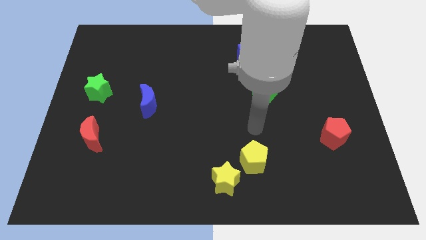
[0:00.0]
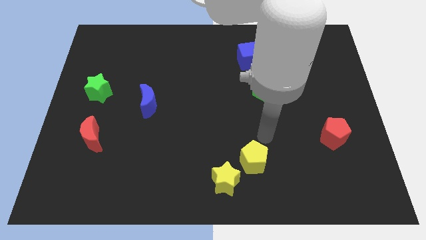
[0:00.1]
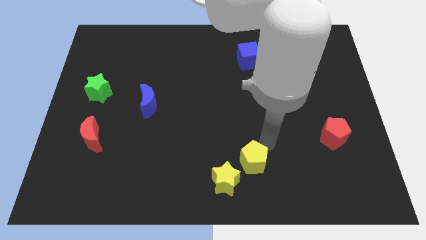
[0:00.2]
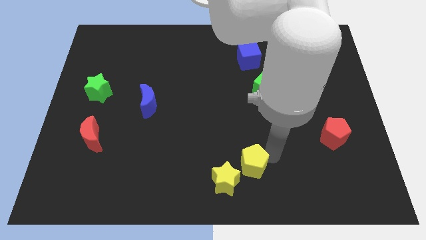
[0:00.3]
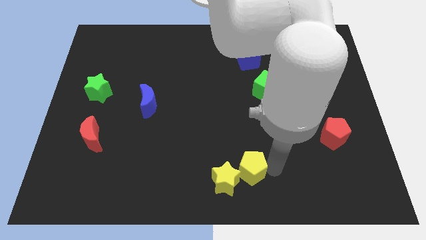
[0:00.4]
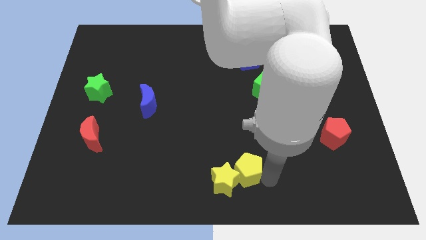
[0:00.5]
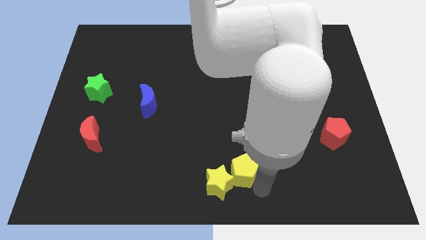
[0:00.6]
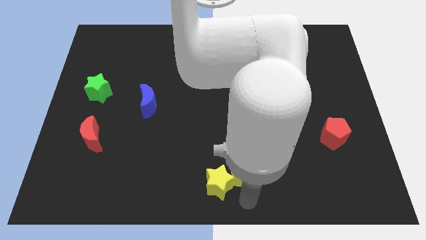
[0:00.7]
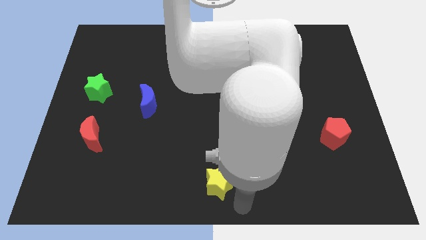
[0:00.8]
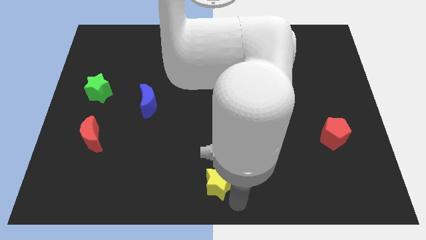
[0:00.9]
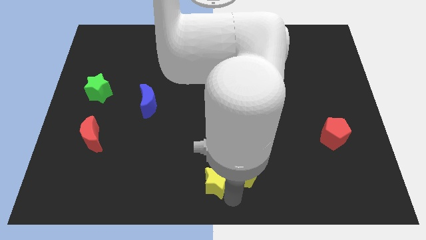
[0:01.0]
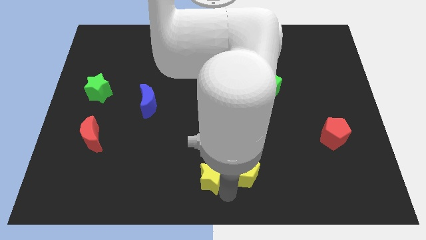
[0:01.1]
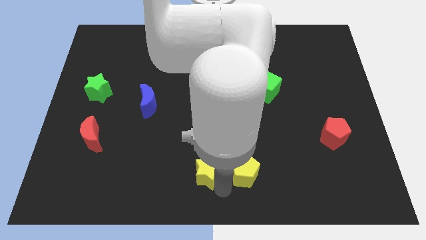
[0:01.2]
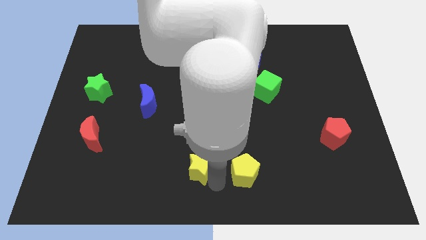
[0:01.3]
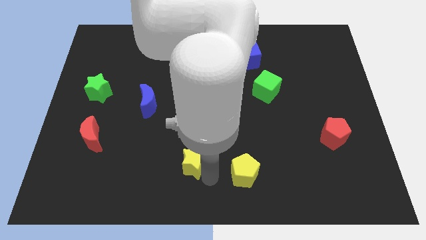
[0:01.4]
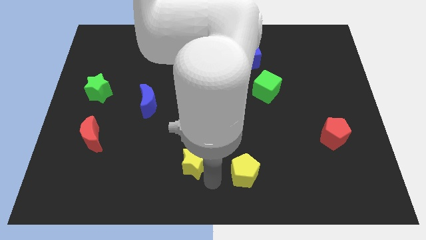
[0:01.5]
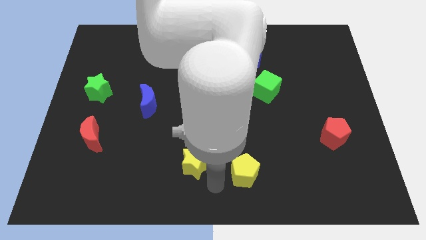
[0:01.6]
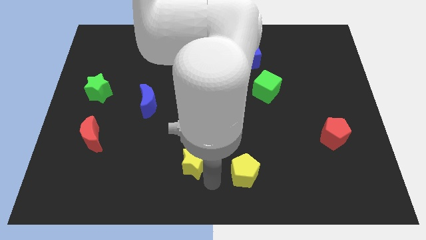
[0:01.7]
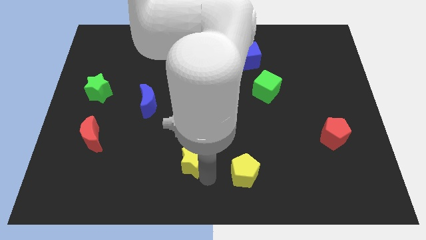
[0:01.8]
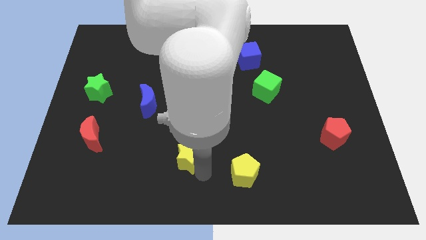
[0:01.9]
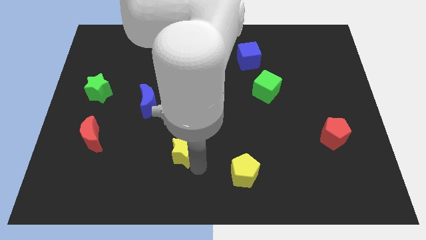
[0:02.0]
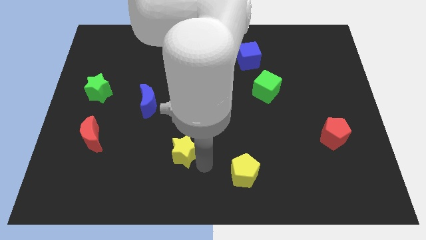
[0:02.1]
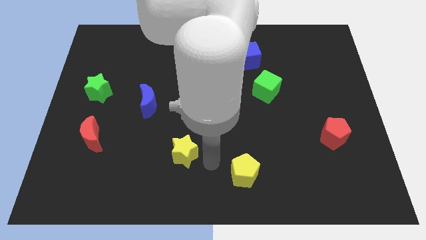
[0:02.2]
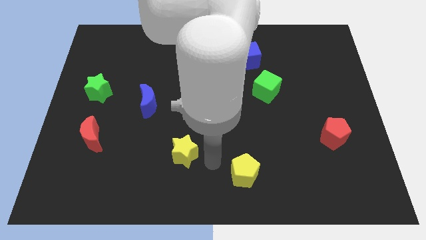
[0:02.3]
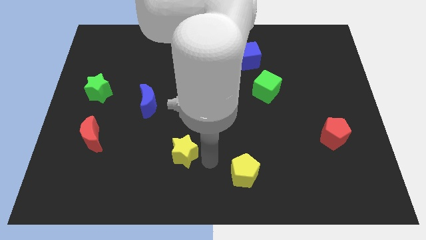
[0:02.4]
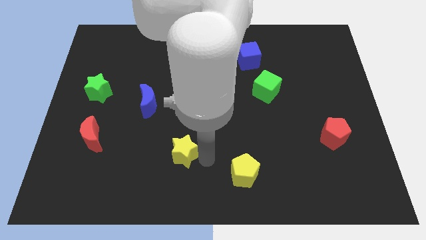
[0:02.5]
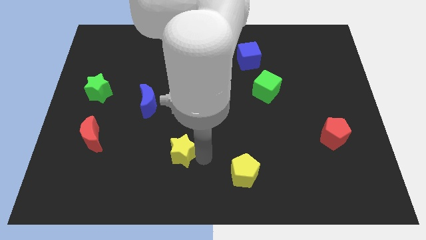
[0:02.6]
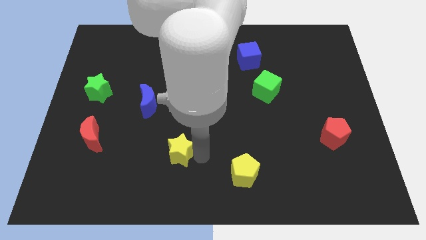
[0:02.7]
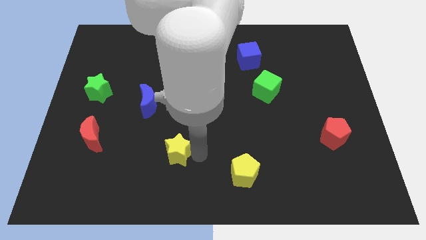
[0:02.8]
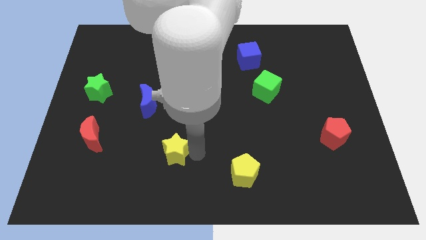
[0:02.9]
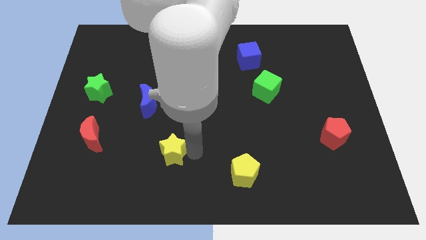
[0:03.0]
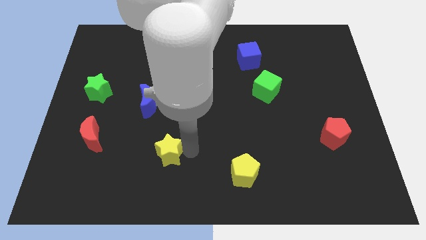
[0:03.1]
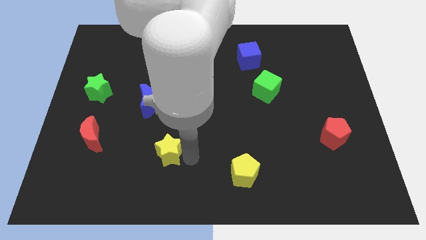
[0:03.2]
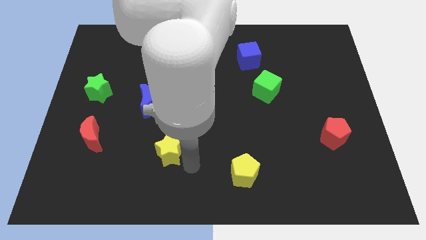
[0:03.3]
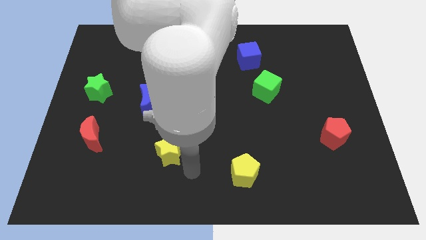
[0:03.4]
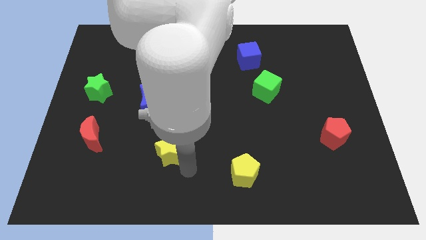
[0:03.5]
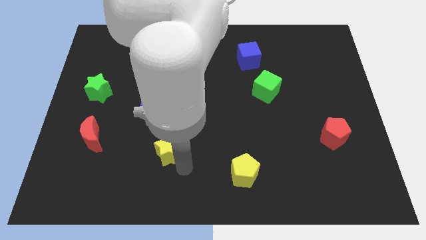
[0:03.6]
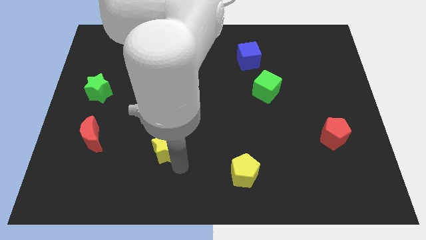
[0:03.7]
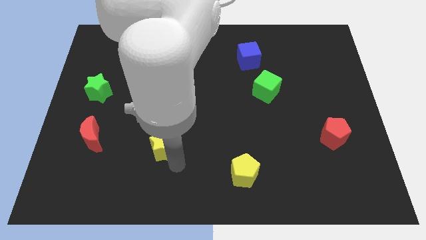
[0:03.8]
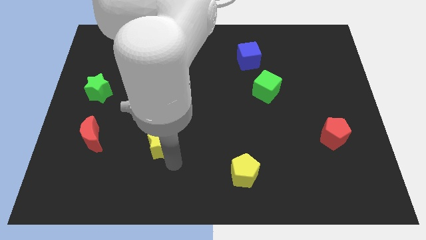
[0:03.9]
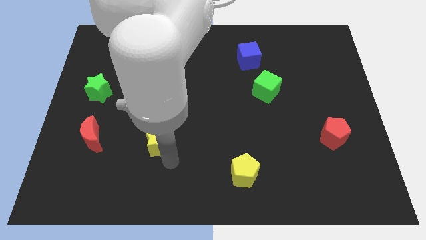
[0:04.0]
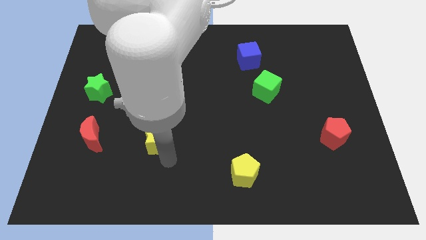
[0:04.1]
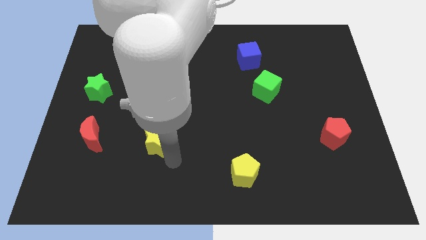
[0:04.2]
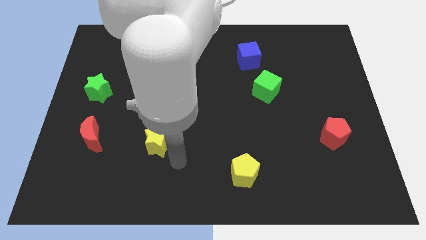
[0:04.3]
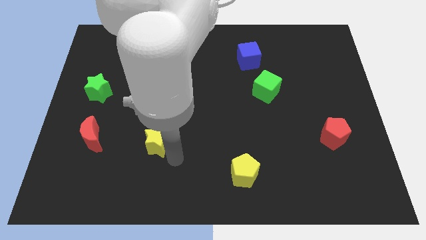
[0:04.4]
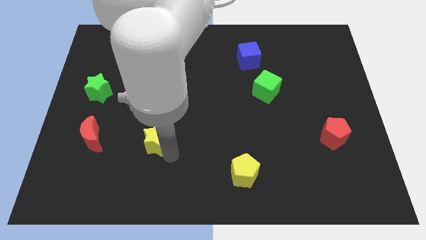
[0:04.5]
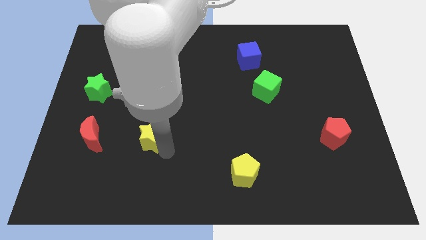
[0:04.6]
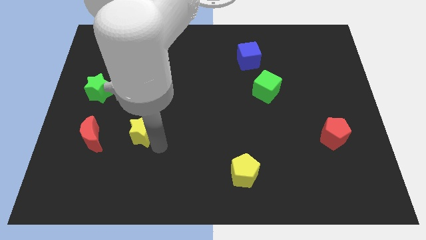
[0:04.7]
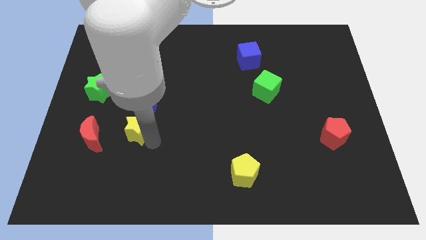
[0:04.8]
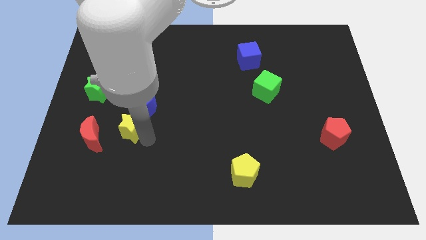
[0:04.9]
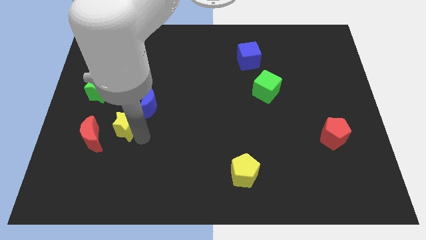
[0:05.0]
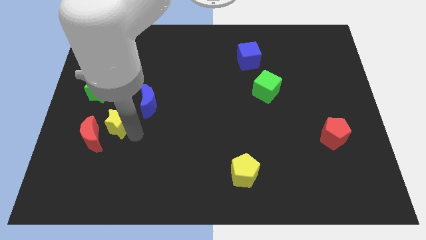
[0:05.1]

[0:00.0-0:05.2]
slide the yellow star to the bottom right side of the green star

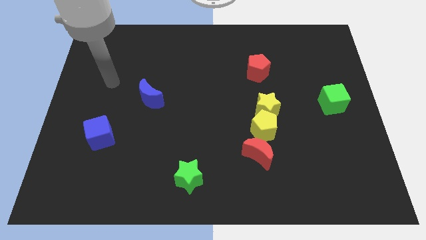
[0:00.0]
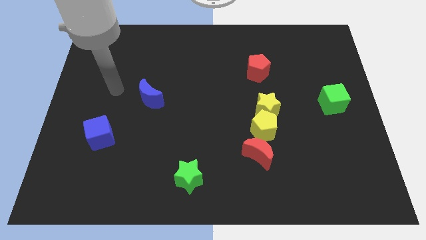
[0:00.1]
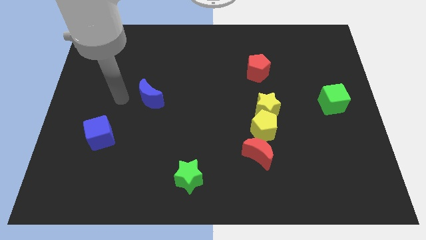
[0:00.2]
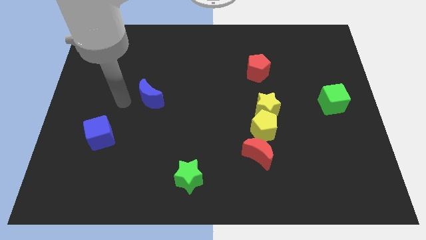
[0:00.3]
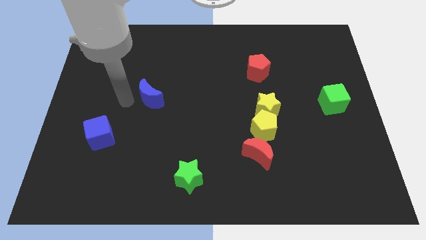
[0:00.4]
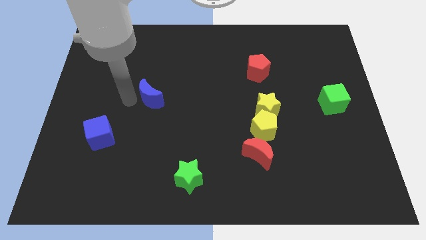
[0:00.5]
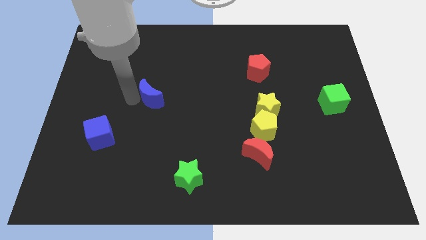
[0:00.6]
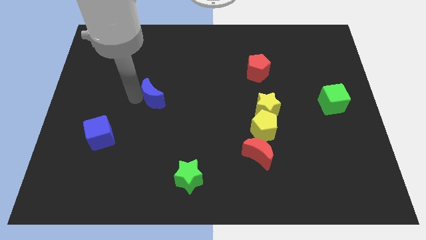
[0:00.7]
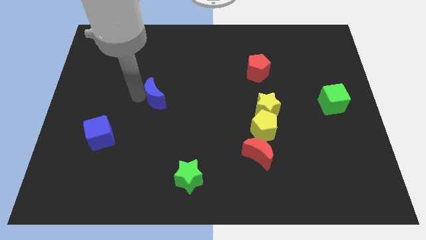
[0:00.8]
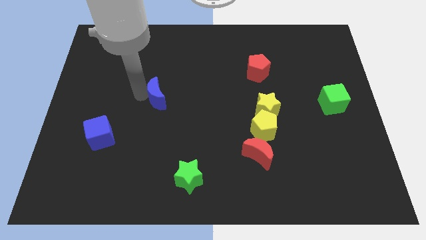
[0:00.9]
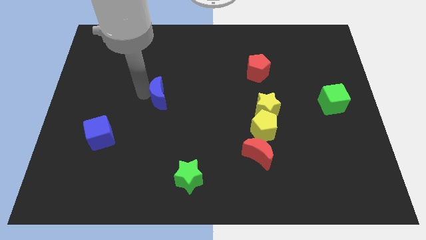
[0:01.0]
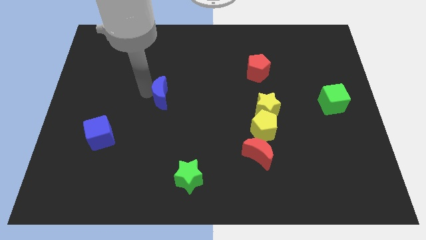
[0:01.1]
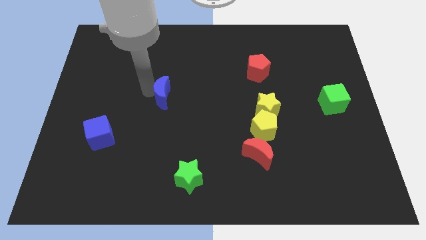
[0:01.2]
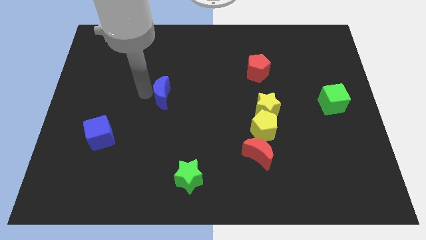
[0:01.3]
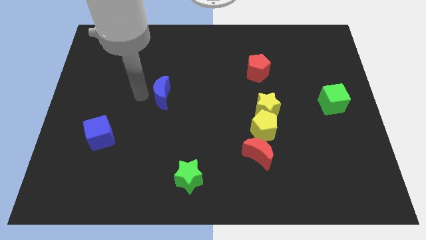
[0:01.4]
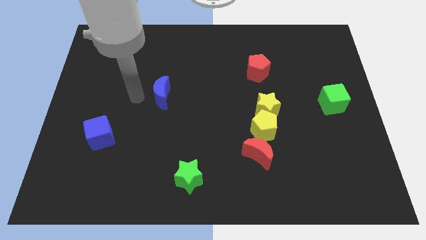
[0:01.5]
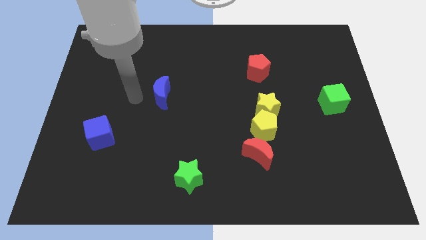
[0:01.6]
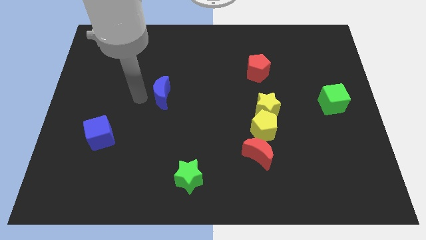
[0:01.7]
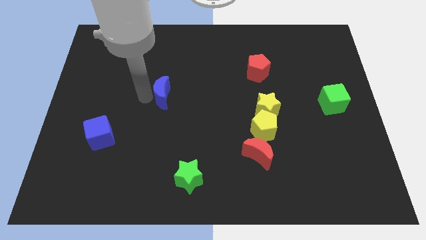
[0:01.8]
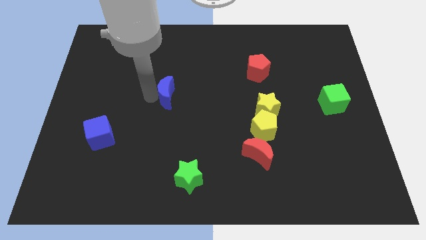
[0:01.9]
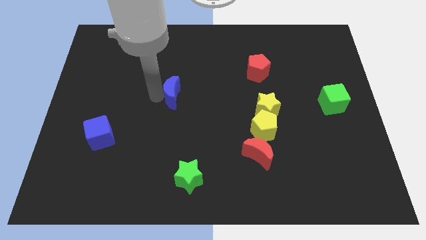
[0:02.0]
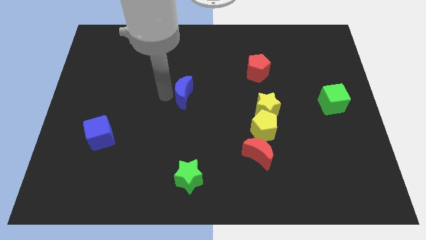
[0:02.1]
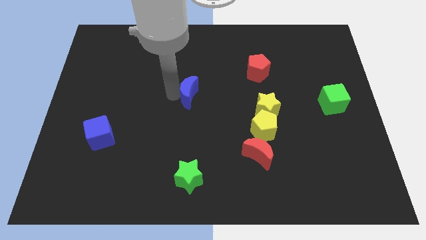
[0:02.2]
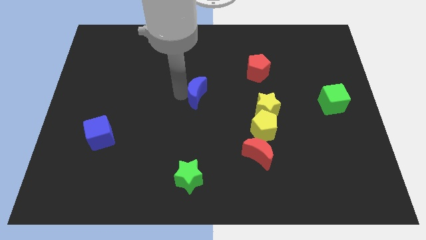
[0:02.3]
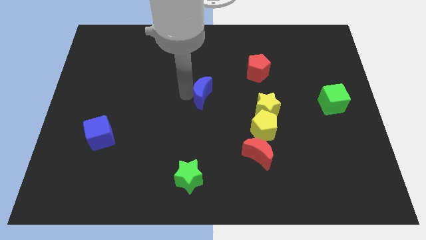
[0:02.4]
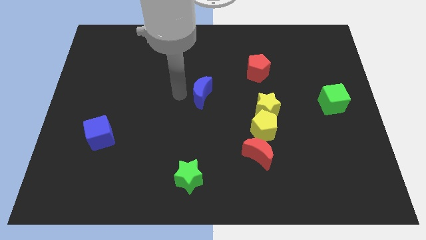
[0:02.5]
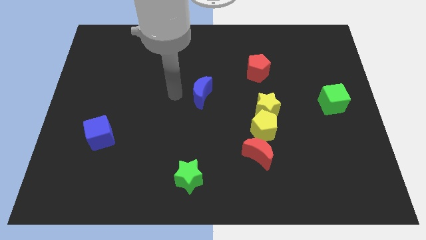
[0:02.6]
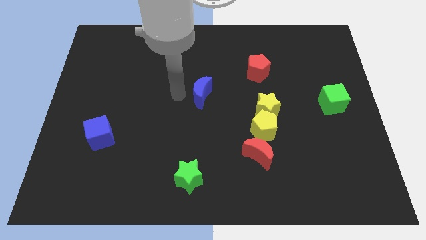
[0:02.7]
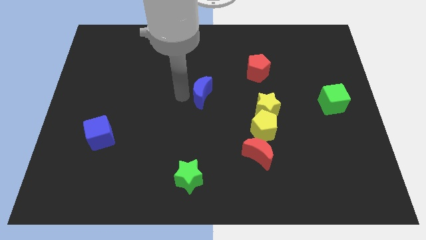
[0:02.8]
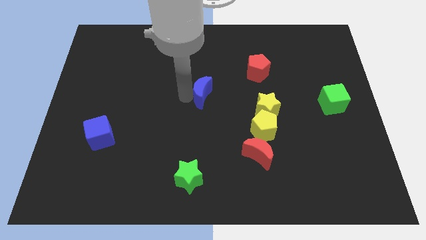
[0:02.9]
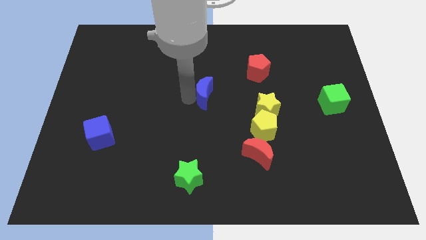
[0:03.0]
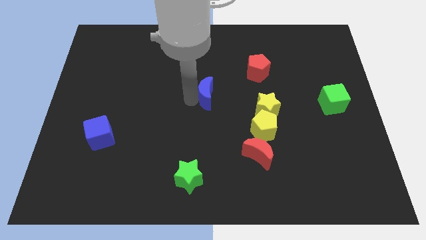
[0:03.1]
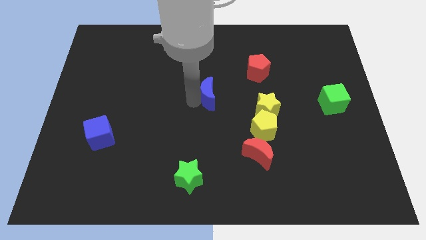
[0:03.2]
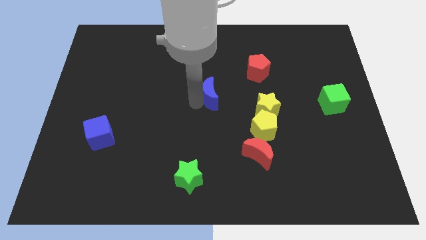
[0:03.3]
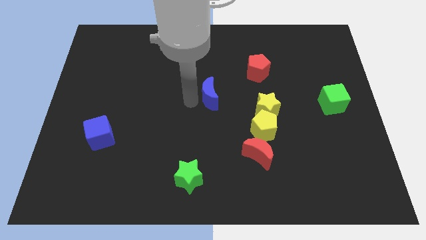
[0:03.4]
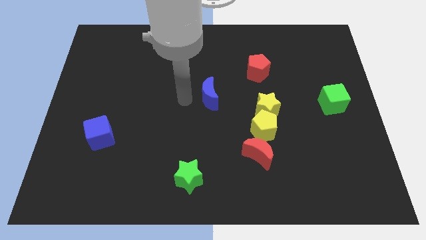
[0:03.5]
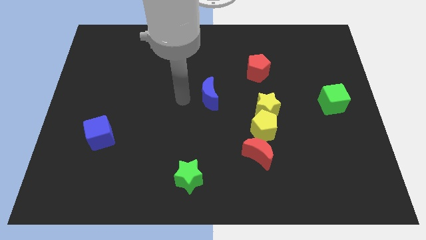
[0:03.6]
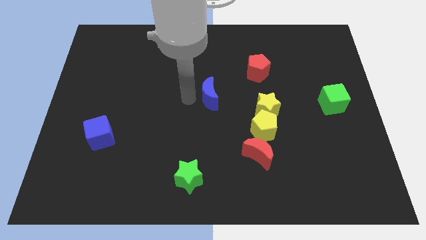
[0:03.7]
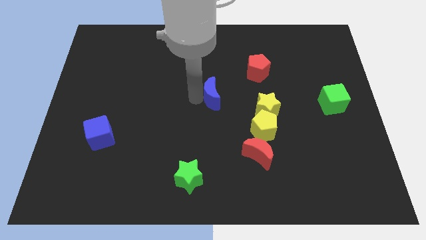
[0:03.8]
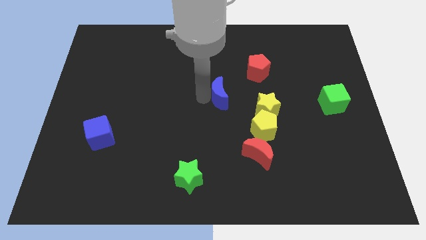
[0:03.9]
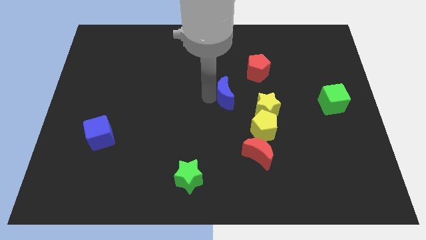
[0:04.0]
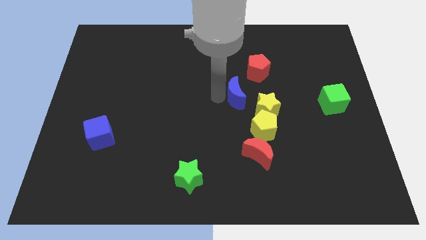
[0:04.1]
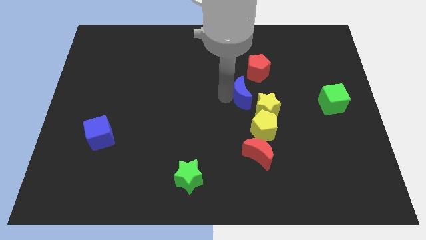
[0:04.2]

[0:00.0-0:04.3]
move the blue moon above the yellow pentagon
